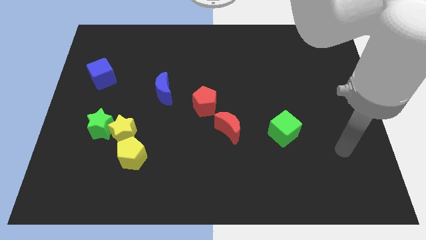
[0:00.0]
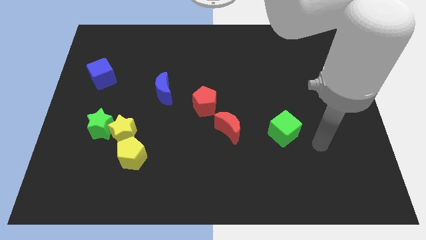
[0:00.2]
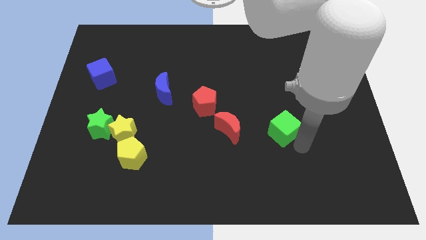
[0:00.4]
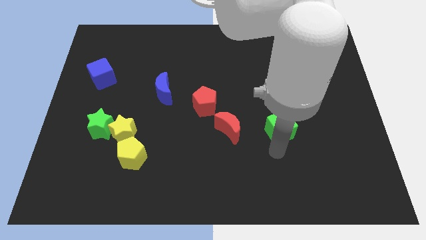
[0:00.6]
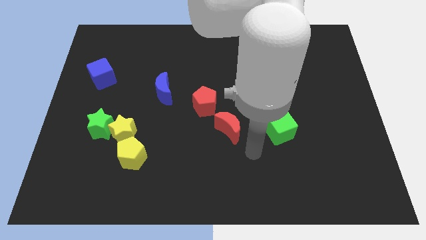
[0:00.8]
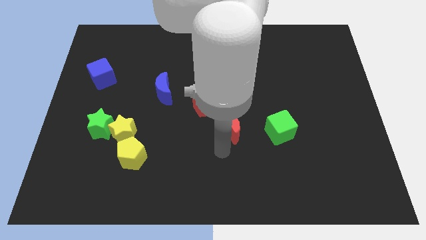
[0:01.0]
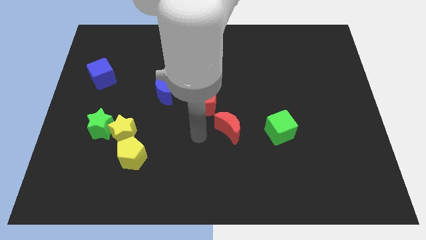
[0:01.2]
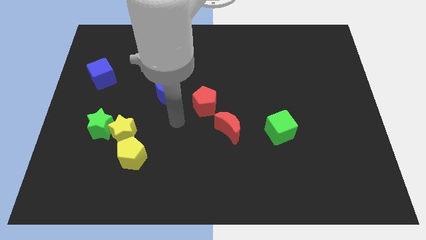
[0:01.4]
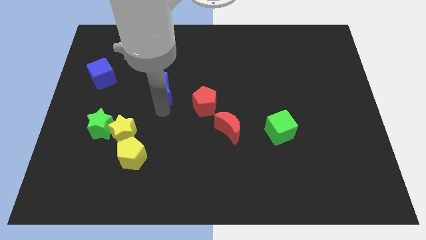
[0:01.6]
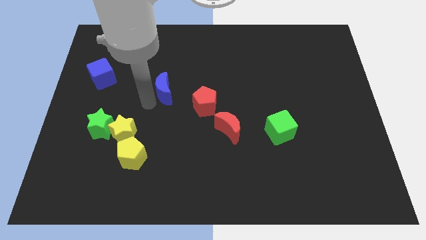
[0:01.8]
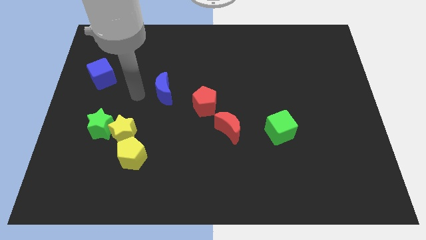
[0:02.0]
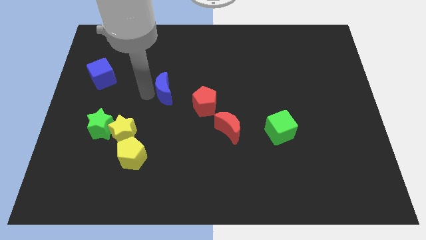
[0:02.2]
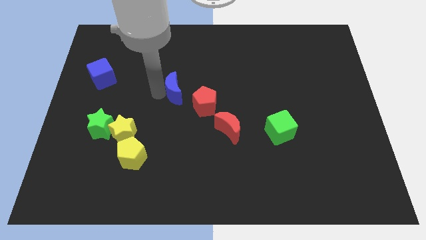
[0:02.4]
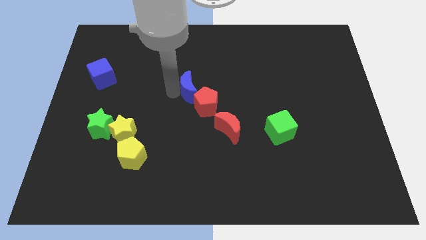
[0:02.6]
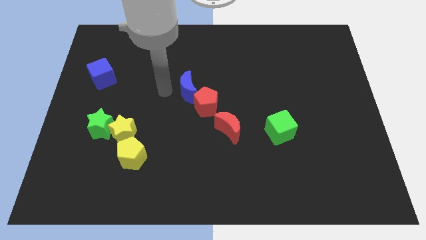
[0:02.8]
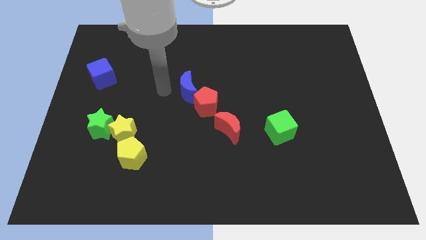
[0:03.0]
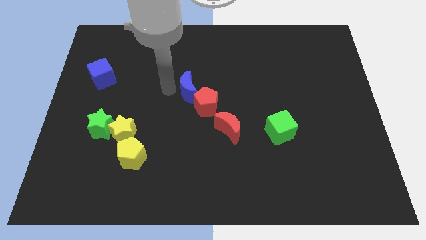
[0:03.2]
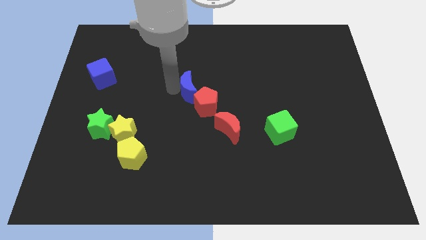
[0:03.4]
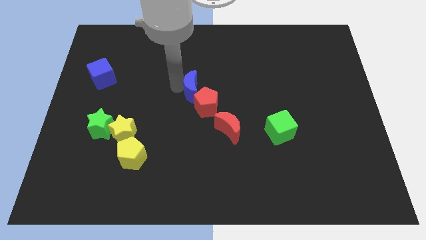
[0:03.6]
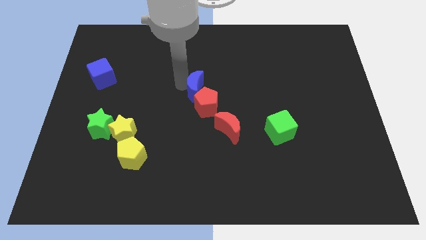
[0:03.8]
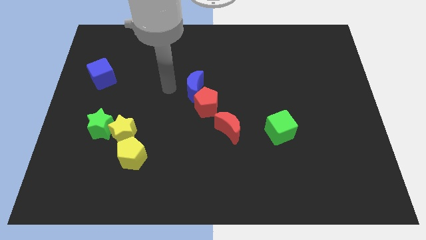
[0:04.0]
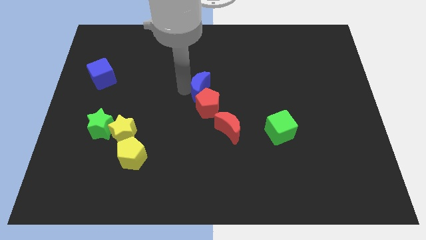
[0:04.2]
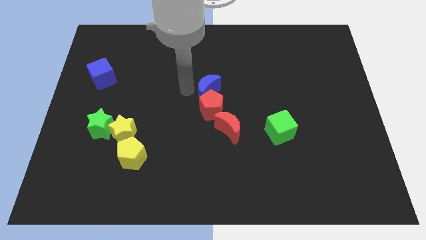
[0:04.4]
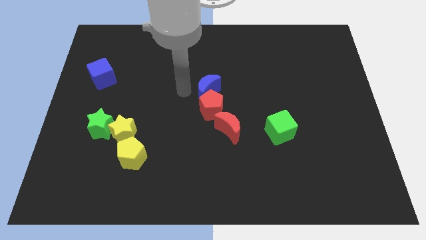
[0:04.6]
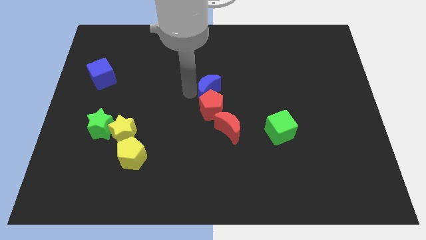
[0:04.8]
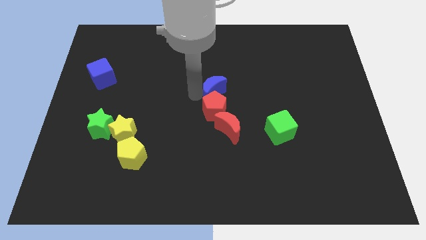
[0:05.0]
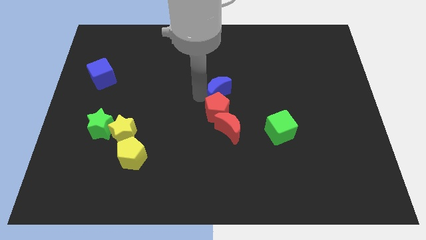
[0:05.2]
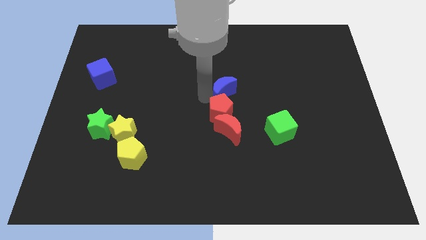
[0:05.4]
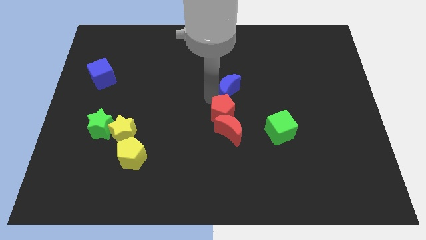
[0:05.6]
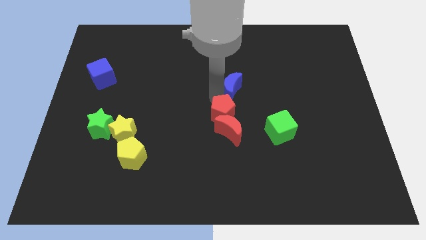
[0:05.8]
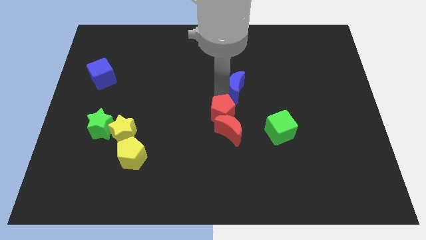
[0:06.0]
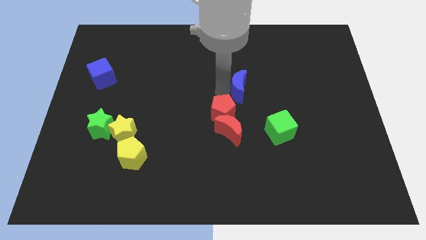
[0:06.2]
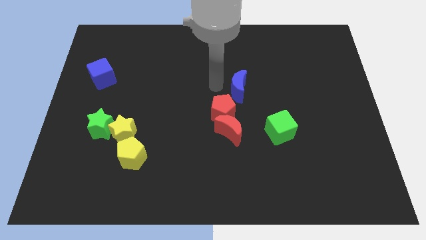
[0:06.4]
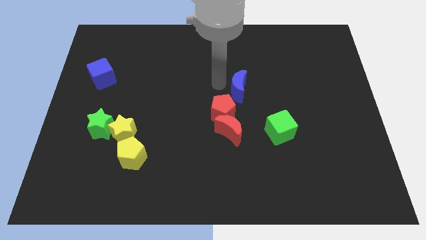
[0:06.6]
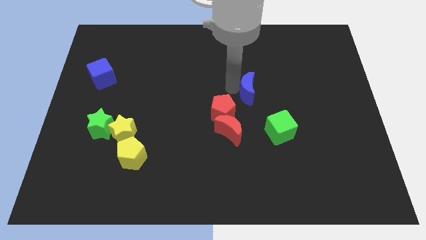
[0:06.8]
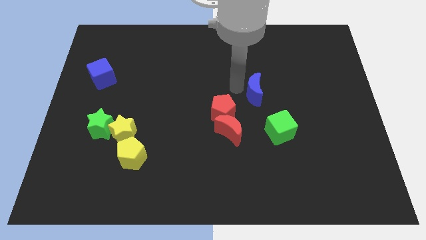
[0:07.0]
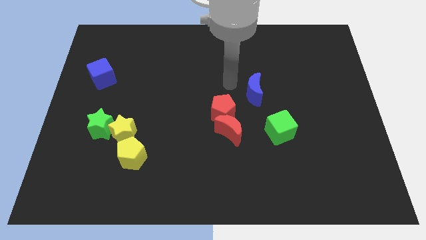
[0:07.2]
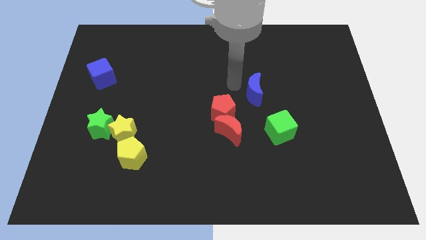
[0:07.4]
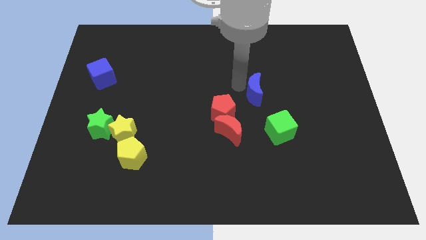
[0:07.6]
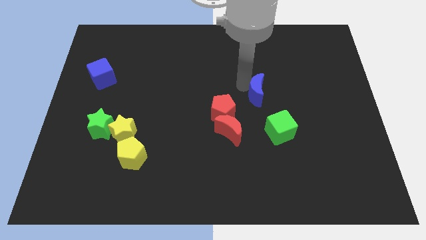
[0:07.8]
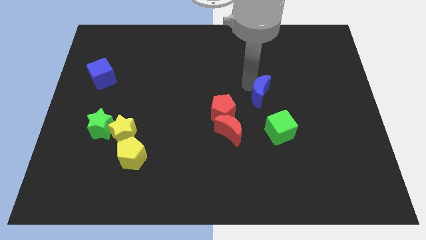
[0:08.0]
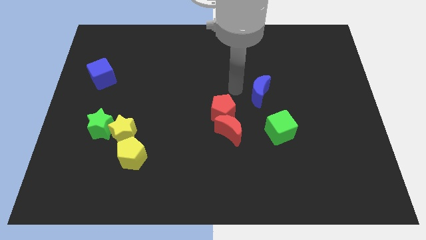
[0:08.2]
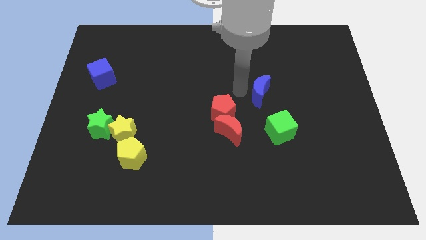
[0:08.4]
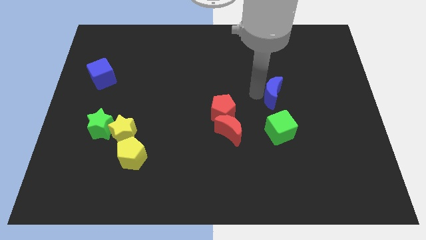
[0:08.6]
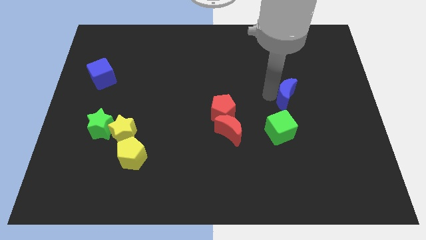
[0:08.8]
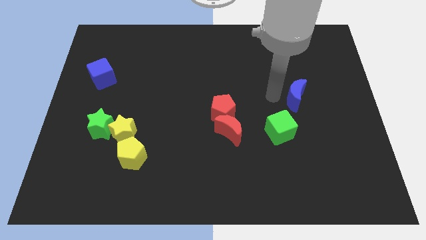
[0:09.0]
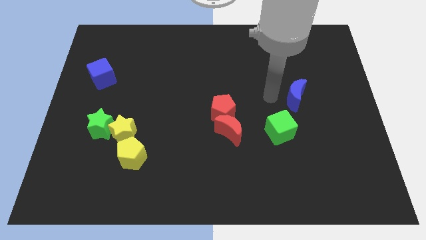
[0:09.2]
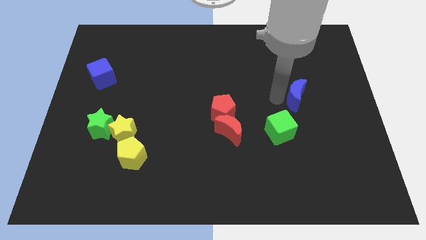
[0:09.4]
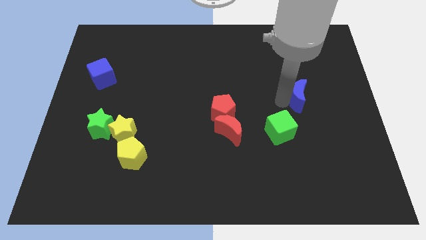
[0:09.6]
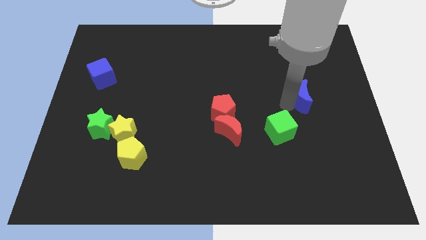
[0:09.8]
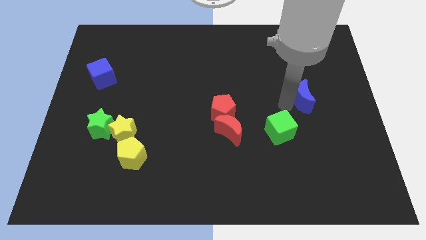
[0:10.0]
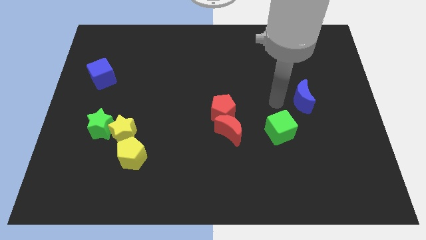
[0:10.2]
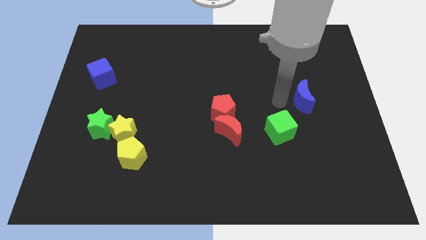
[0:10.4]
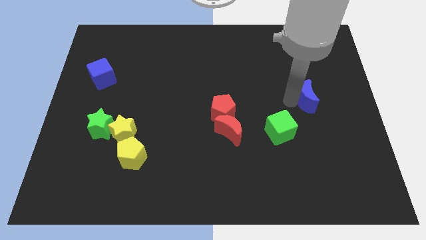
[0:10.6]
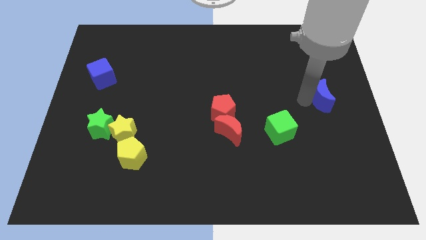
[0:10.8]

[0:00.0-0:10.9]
push the blue moon to the right side
